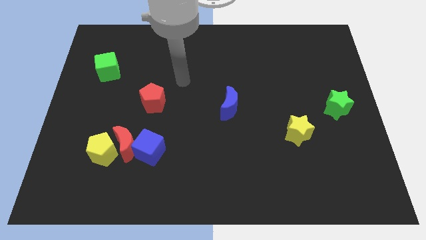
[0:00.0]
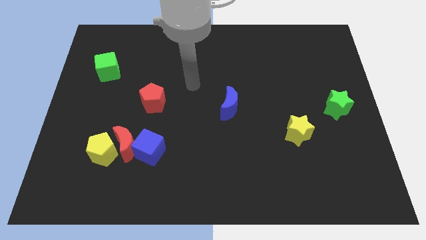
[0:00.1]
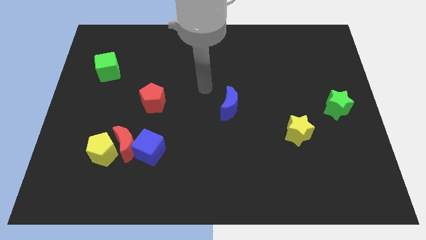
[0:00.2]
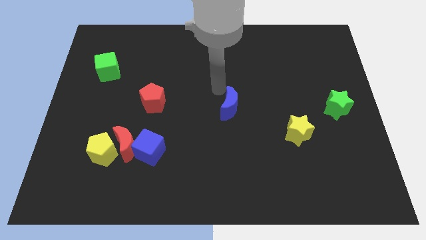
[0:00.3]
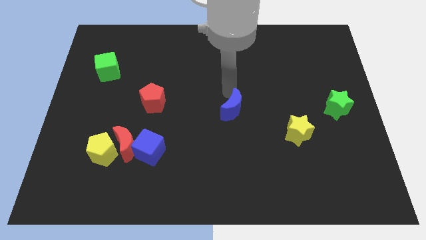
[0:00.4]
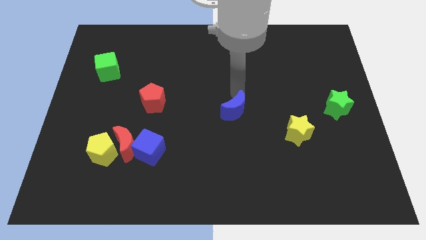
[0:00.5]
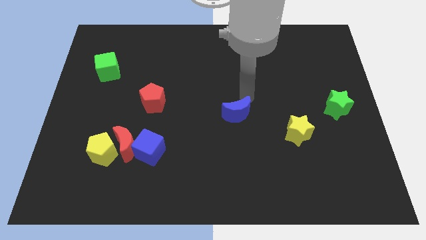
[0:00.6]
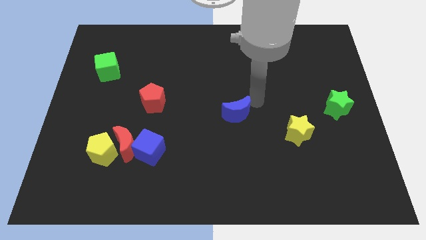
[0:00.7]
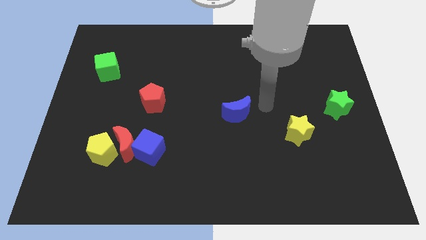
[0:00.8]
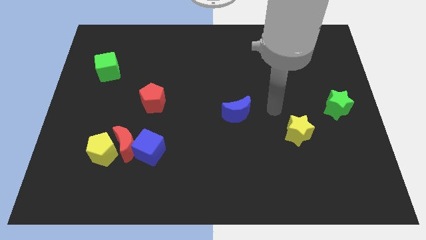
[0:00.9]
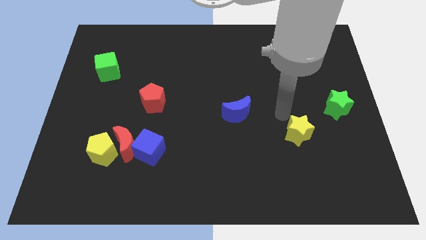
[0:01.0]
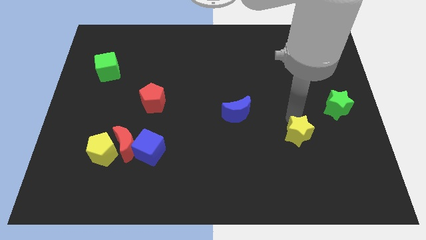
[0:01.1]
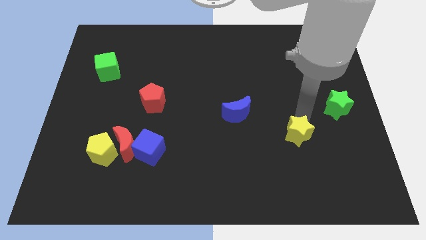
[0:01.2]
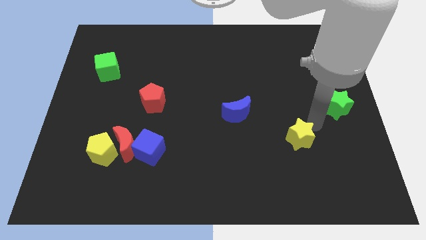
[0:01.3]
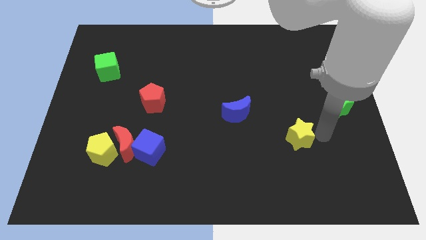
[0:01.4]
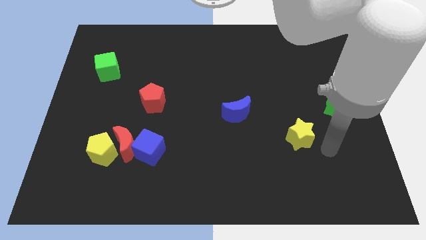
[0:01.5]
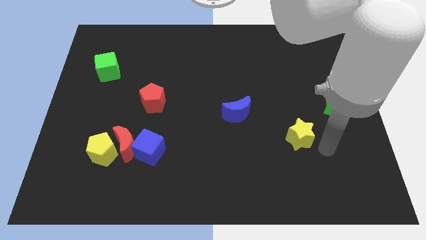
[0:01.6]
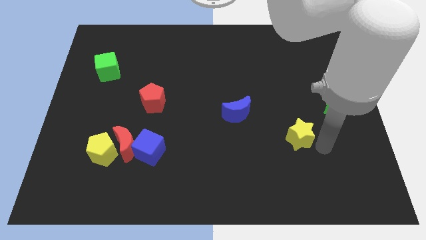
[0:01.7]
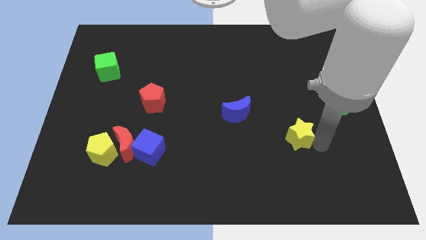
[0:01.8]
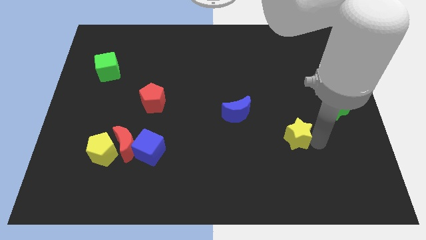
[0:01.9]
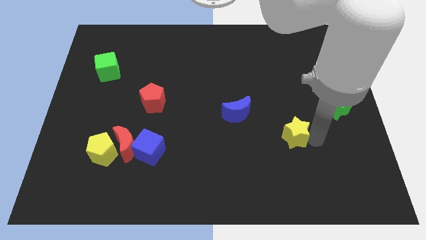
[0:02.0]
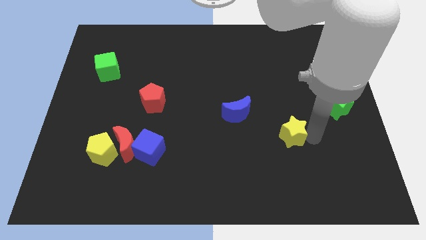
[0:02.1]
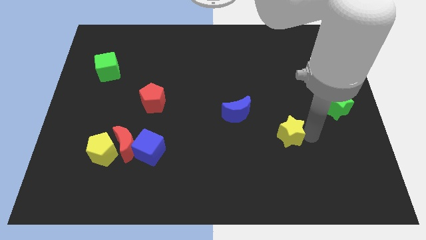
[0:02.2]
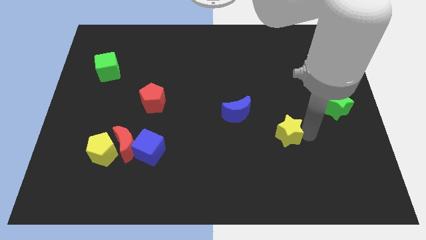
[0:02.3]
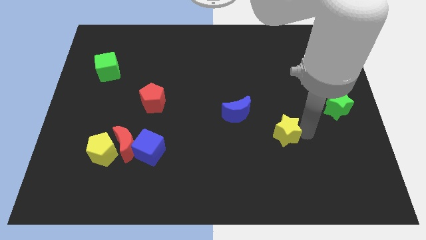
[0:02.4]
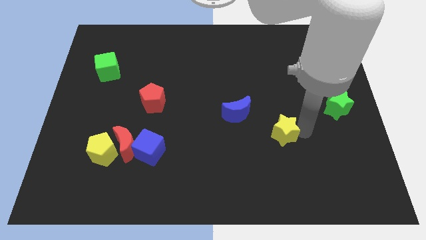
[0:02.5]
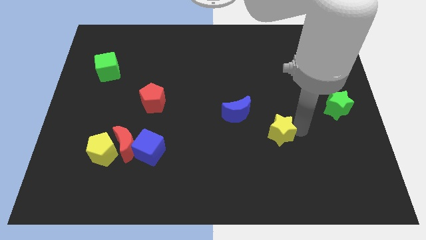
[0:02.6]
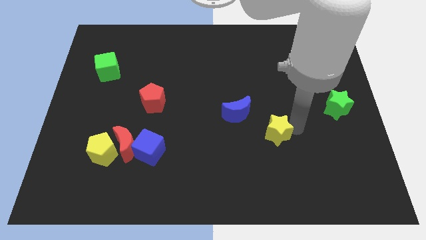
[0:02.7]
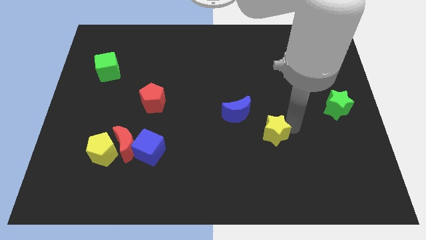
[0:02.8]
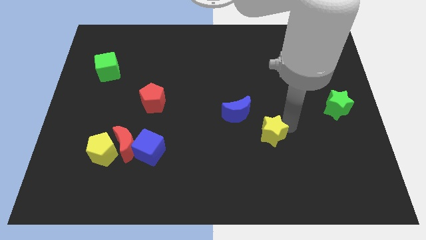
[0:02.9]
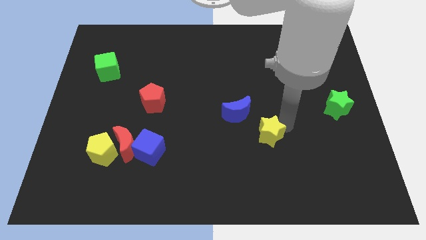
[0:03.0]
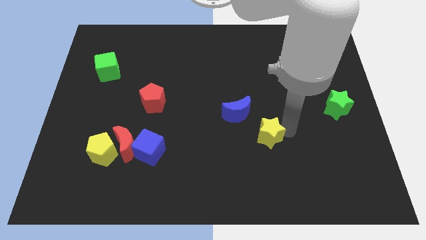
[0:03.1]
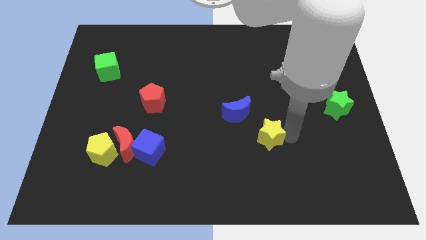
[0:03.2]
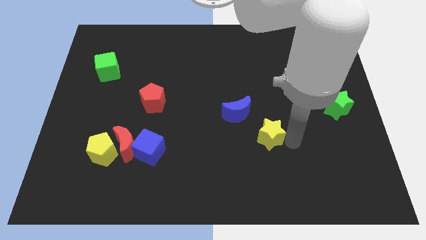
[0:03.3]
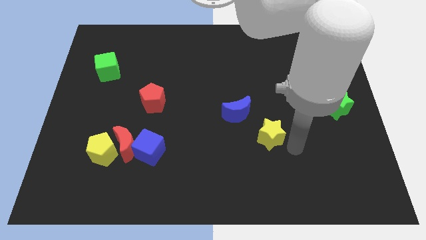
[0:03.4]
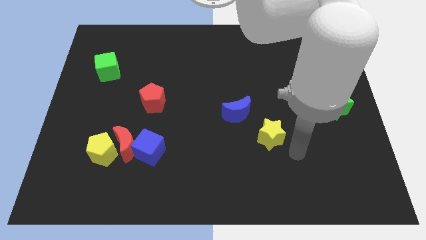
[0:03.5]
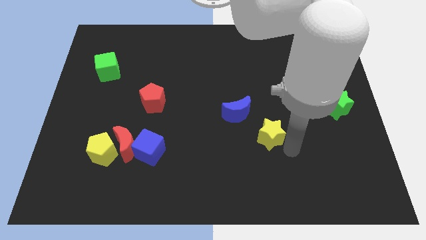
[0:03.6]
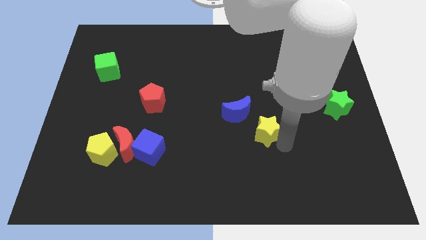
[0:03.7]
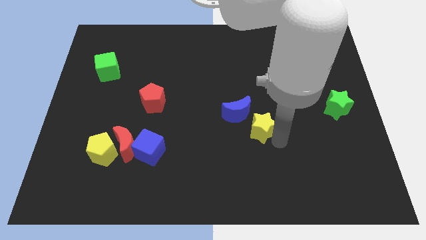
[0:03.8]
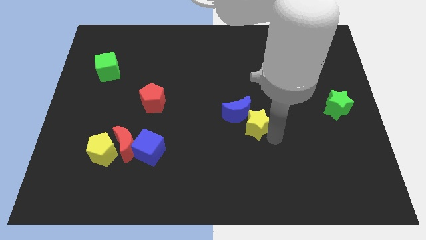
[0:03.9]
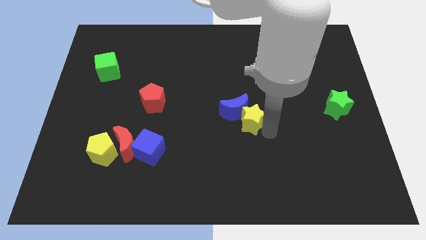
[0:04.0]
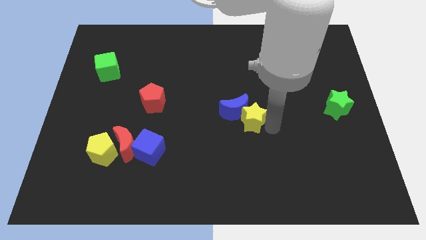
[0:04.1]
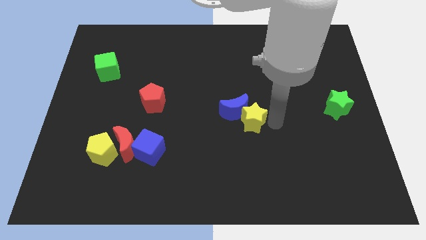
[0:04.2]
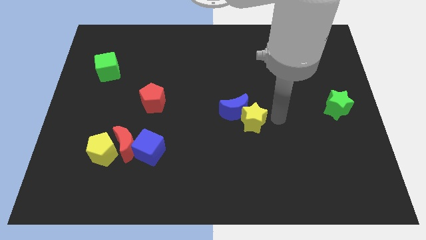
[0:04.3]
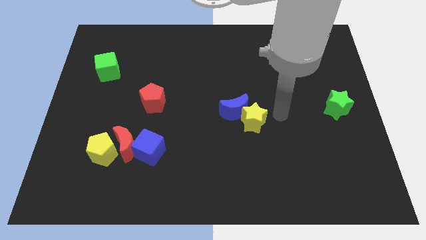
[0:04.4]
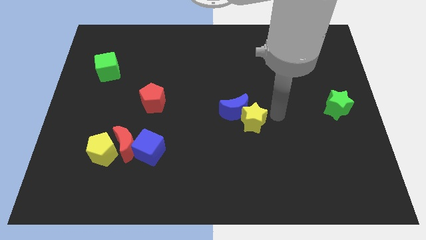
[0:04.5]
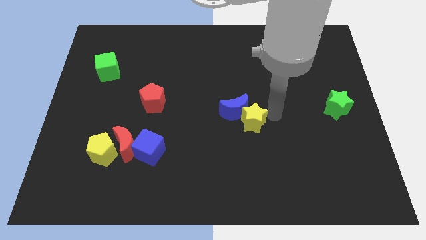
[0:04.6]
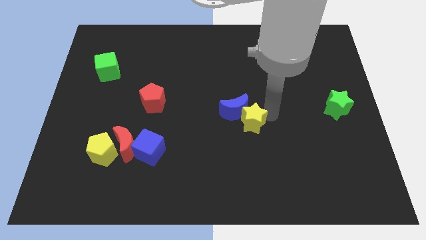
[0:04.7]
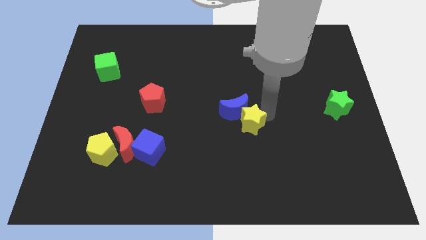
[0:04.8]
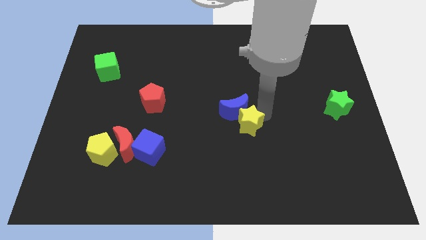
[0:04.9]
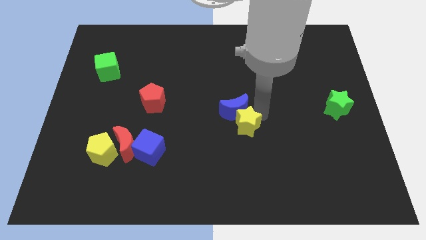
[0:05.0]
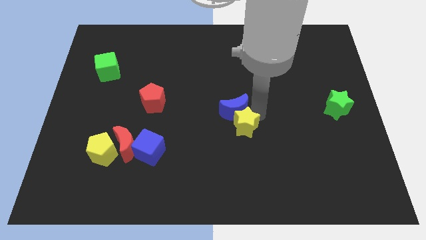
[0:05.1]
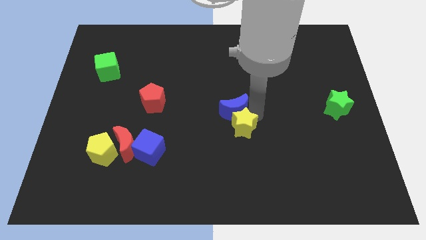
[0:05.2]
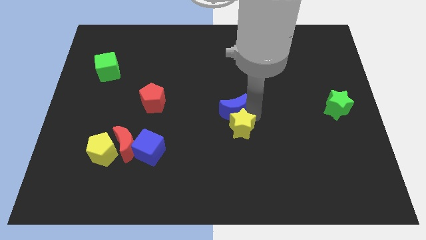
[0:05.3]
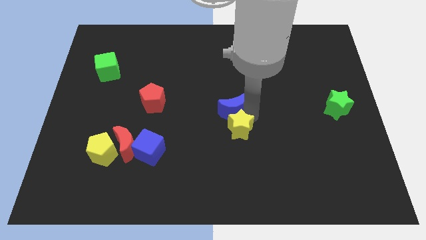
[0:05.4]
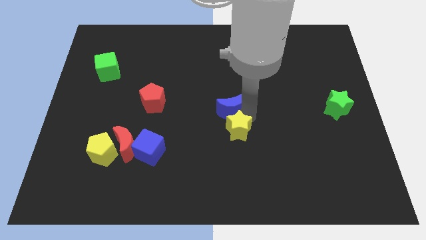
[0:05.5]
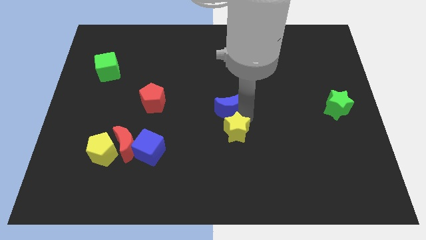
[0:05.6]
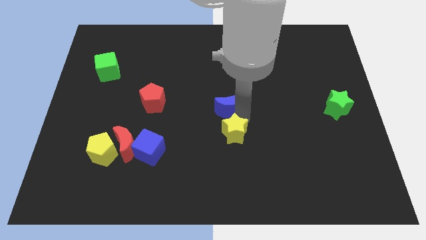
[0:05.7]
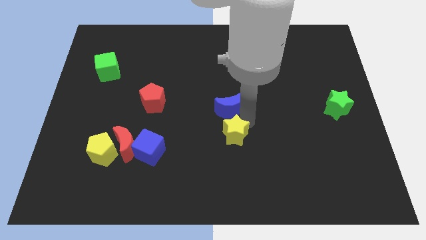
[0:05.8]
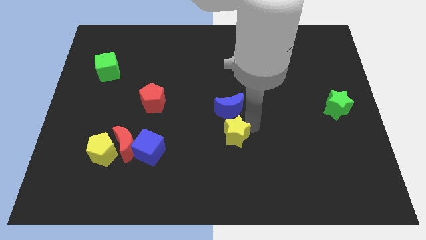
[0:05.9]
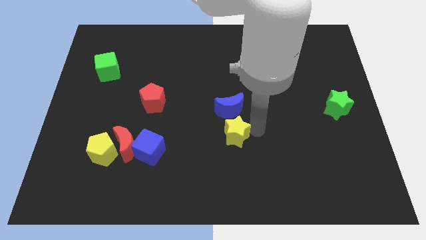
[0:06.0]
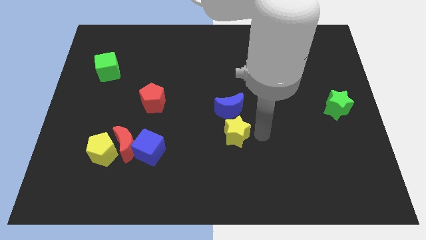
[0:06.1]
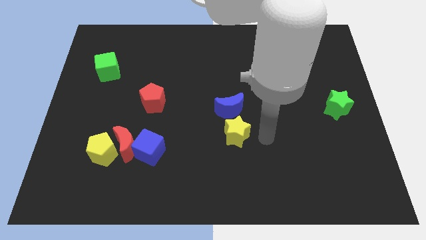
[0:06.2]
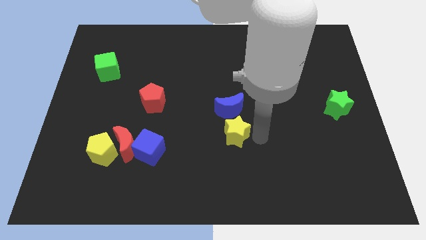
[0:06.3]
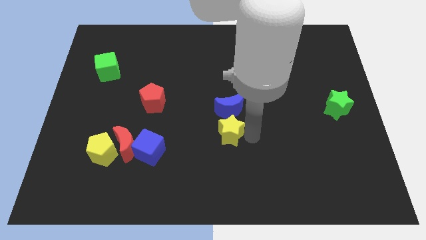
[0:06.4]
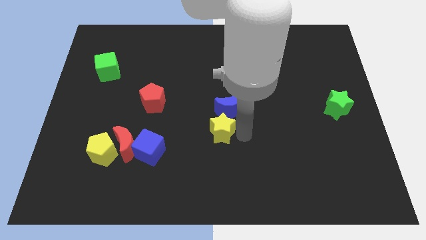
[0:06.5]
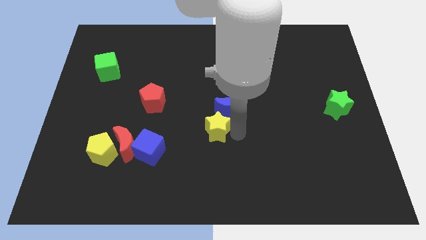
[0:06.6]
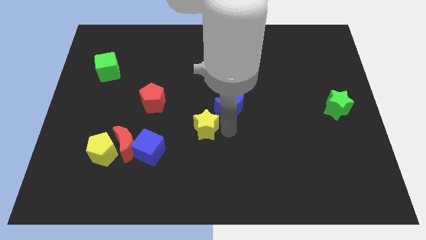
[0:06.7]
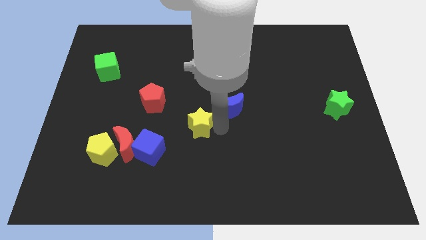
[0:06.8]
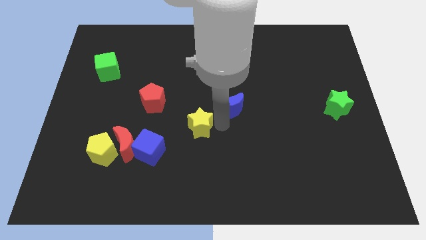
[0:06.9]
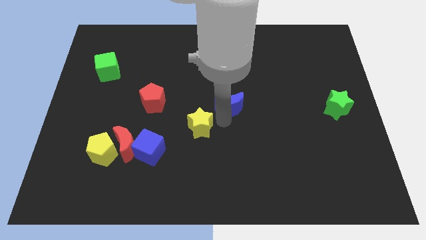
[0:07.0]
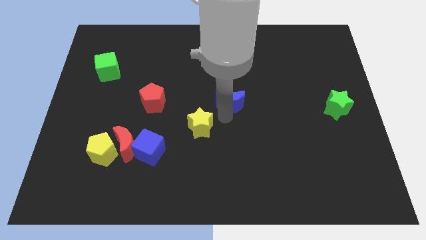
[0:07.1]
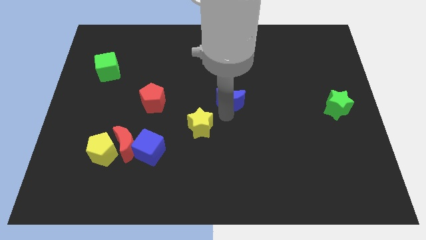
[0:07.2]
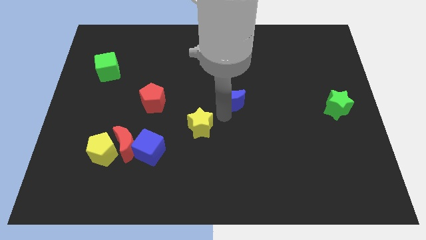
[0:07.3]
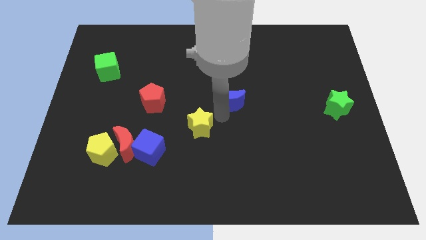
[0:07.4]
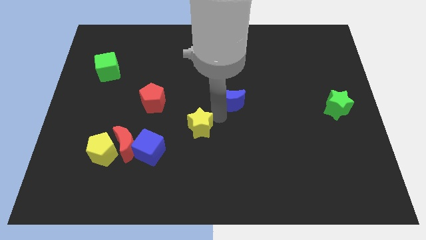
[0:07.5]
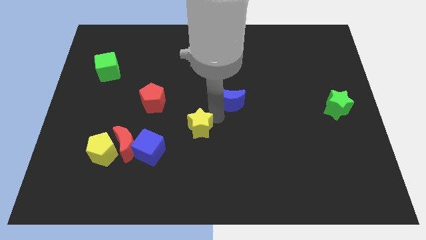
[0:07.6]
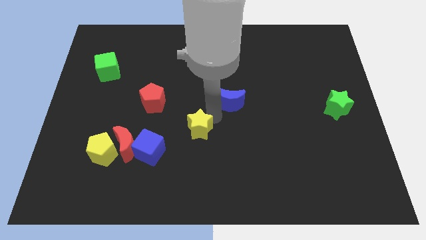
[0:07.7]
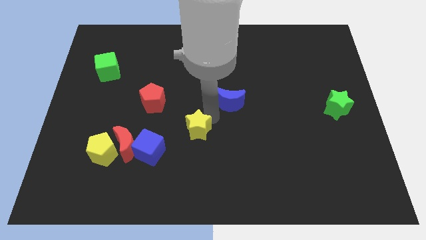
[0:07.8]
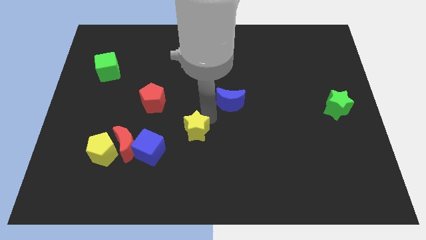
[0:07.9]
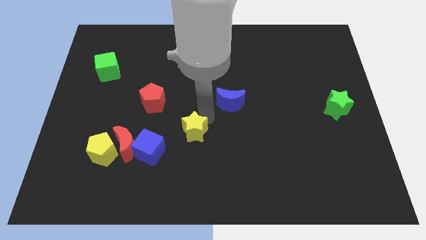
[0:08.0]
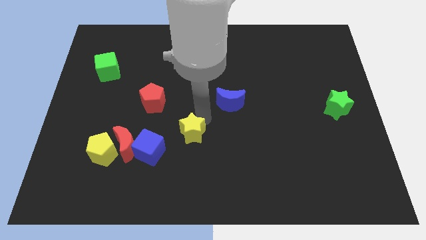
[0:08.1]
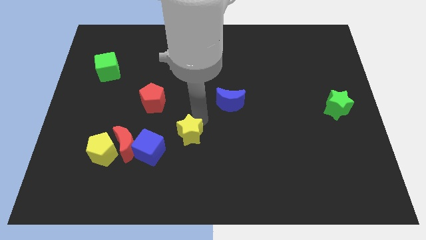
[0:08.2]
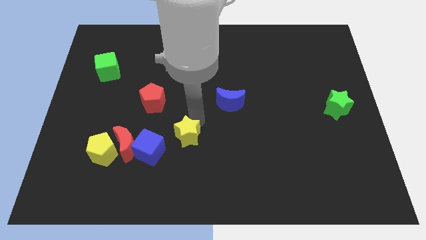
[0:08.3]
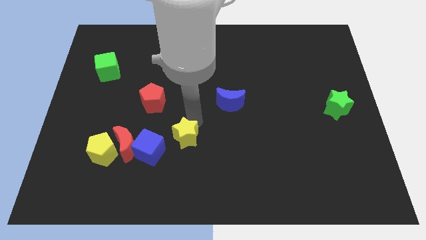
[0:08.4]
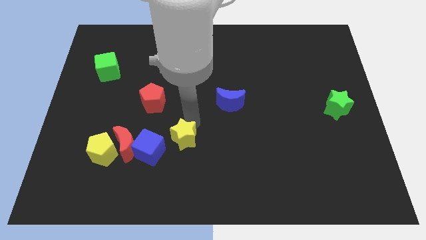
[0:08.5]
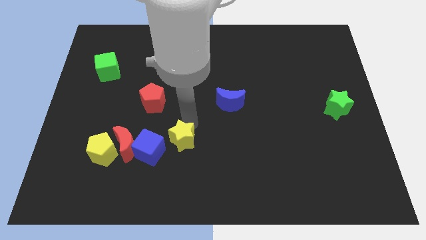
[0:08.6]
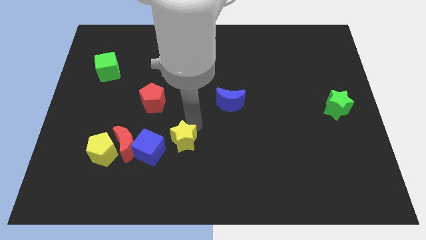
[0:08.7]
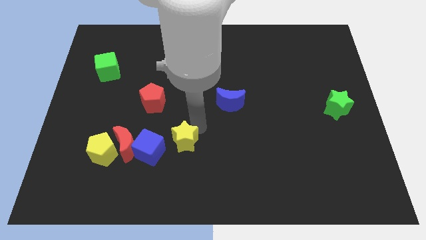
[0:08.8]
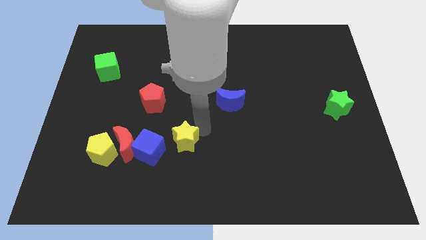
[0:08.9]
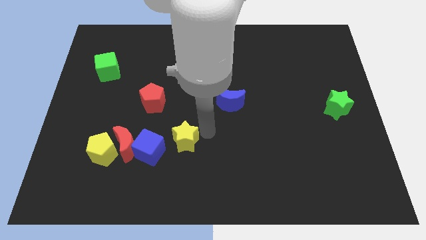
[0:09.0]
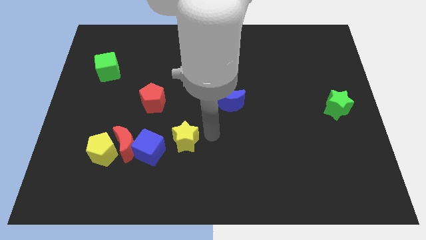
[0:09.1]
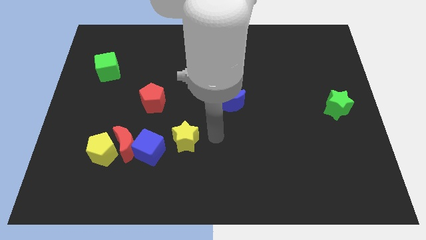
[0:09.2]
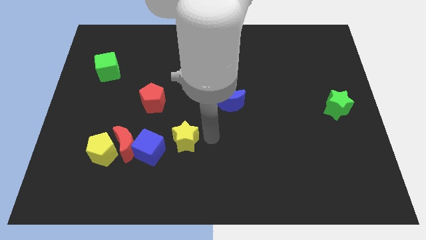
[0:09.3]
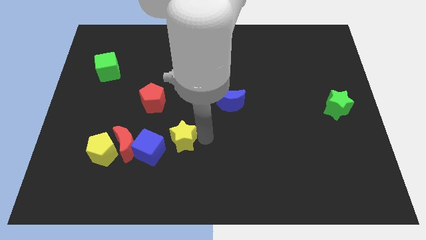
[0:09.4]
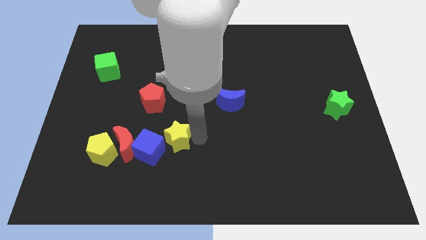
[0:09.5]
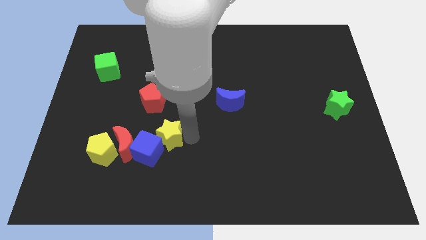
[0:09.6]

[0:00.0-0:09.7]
push the yellow star towards the blue cube
